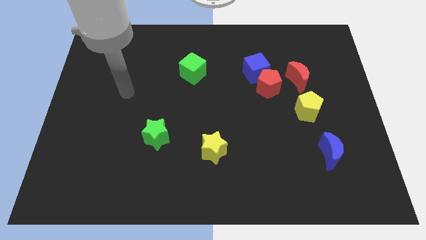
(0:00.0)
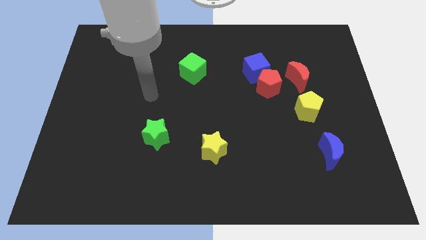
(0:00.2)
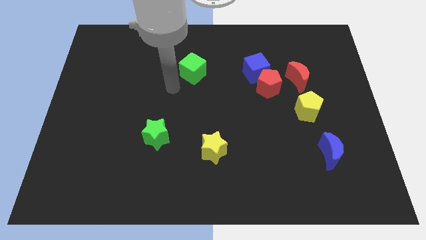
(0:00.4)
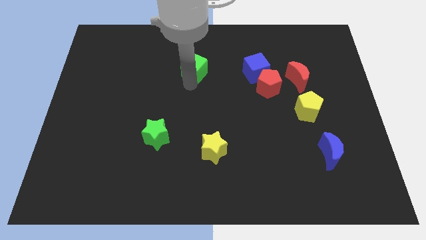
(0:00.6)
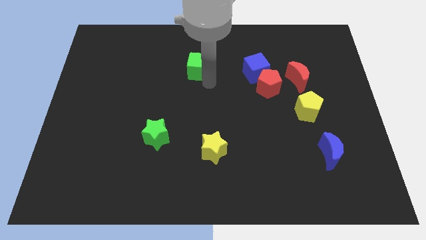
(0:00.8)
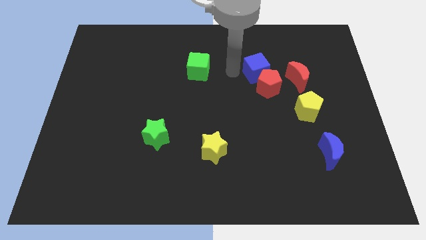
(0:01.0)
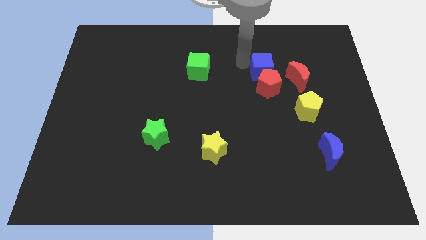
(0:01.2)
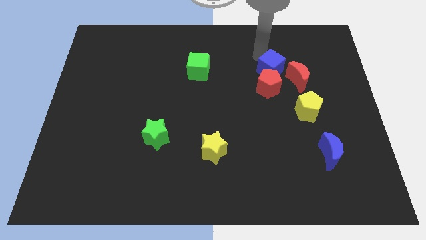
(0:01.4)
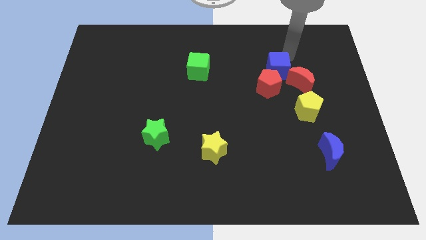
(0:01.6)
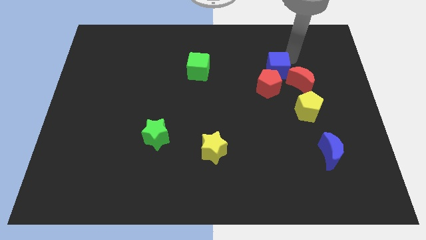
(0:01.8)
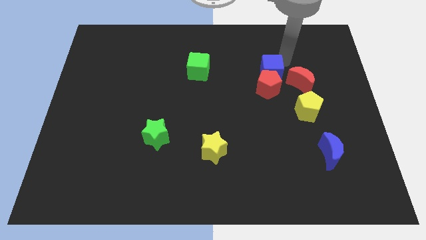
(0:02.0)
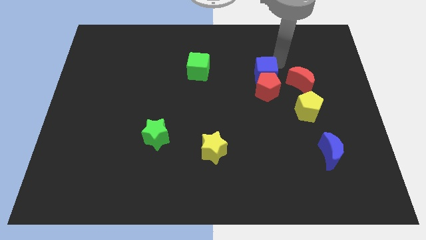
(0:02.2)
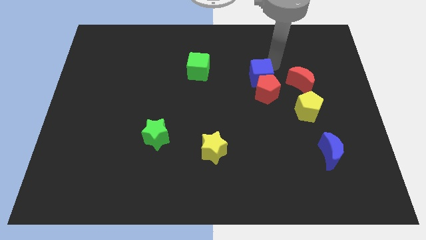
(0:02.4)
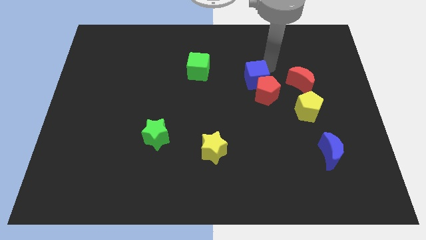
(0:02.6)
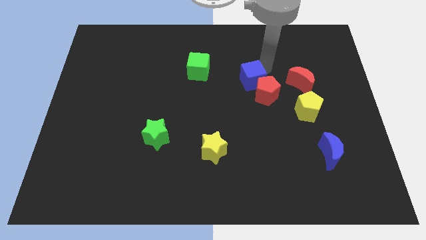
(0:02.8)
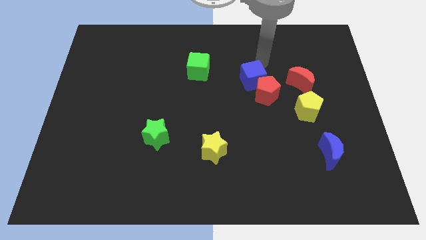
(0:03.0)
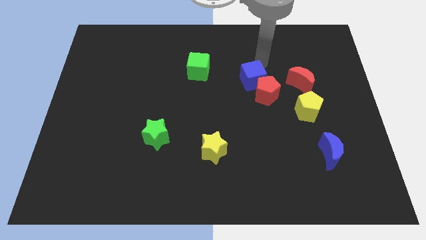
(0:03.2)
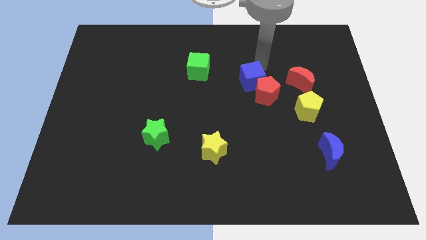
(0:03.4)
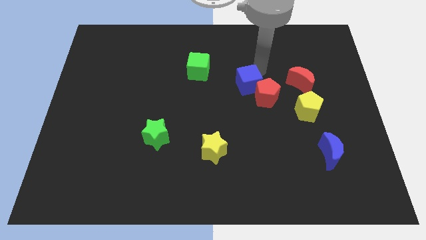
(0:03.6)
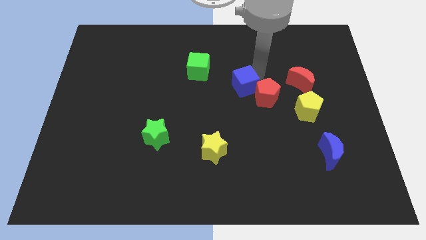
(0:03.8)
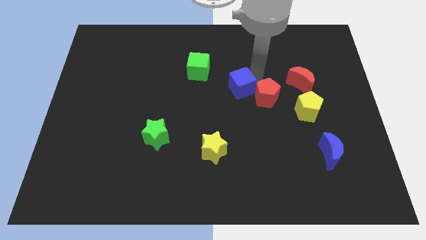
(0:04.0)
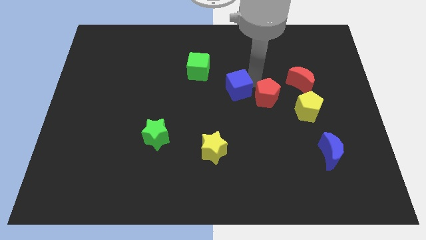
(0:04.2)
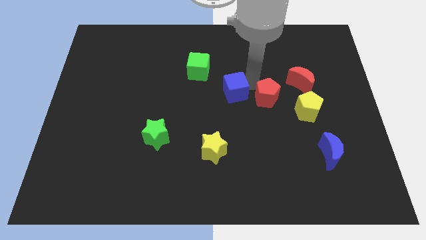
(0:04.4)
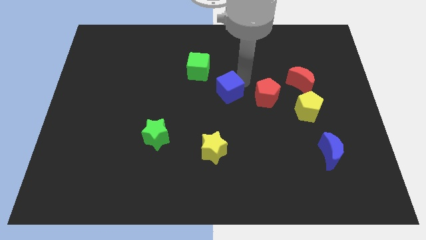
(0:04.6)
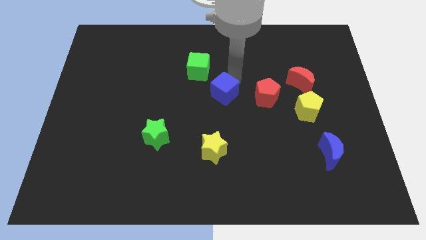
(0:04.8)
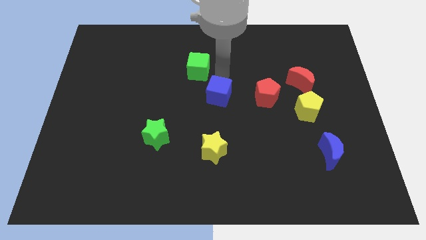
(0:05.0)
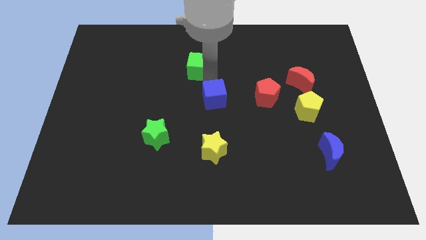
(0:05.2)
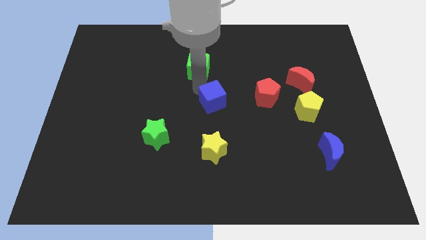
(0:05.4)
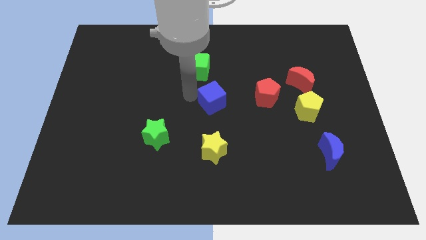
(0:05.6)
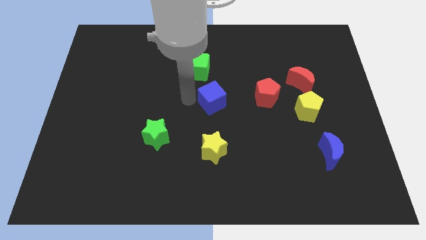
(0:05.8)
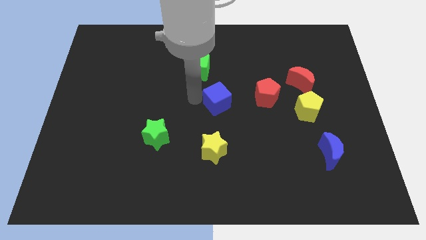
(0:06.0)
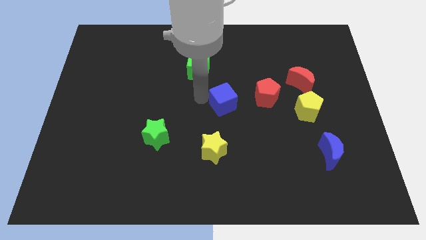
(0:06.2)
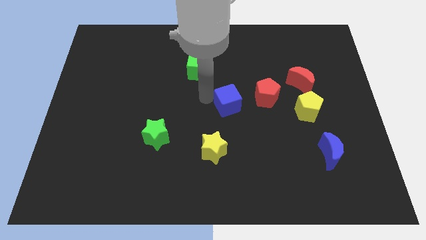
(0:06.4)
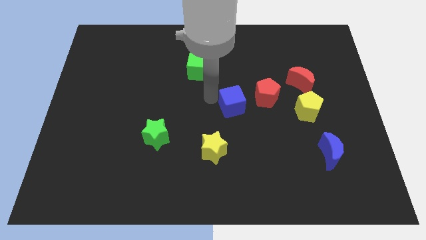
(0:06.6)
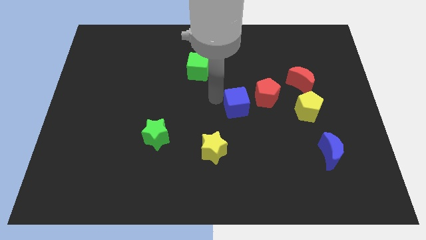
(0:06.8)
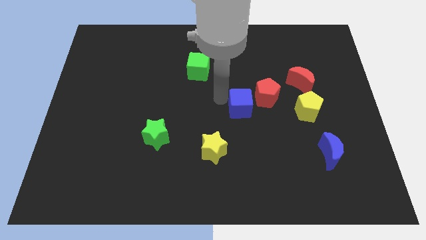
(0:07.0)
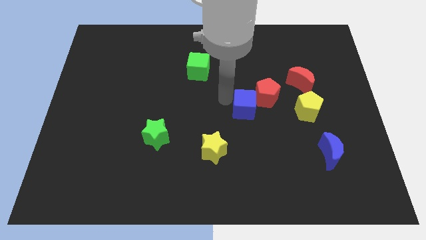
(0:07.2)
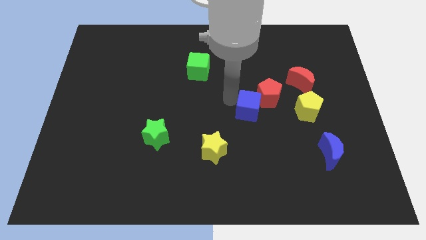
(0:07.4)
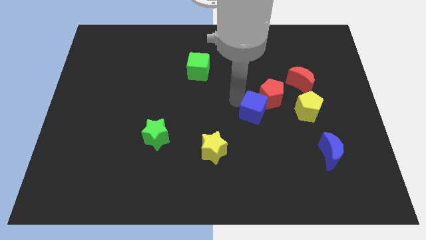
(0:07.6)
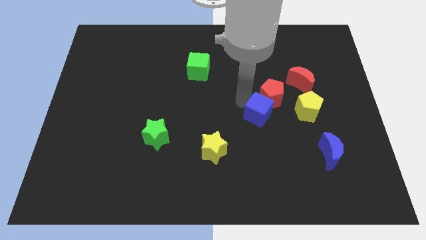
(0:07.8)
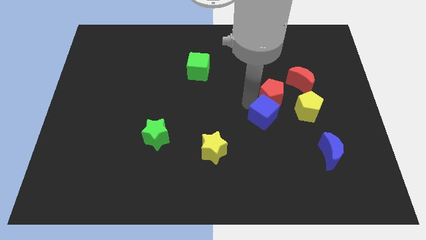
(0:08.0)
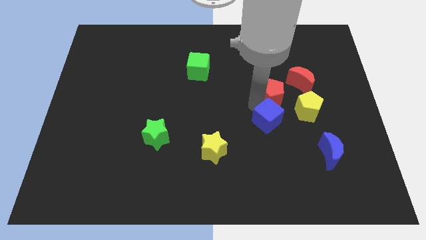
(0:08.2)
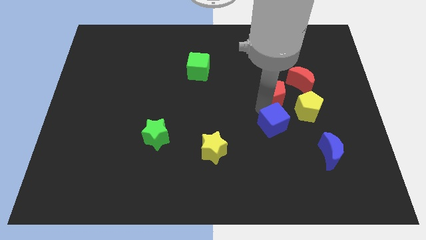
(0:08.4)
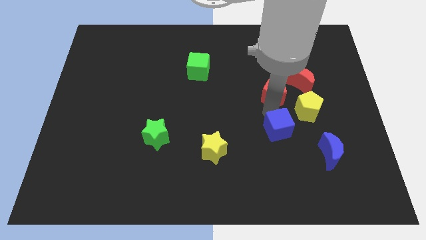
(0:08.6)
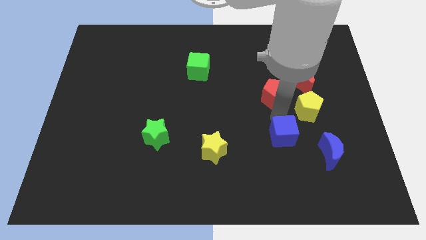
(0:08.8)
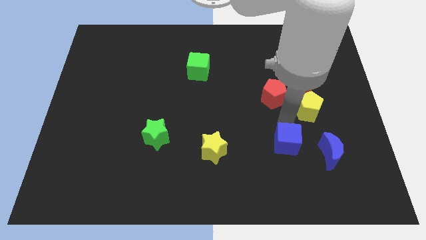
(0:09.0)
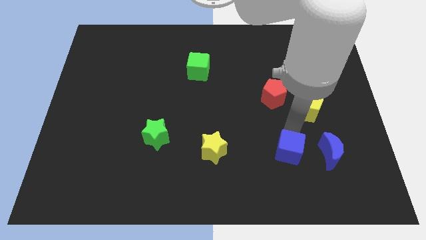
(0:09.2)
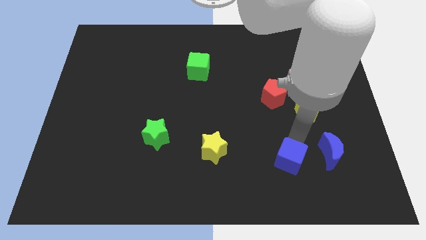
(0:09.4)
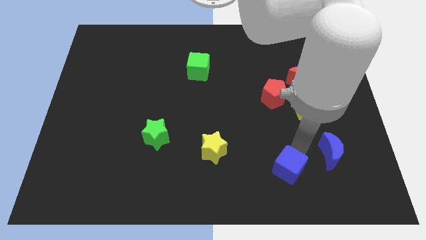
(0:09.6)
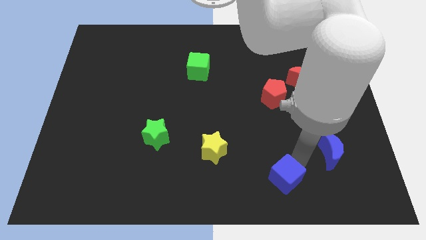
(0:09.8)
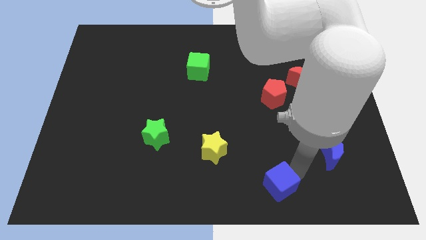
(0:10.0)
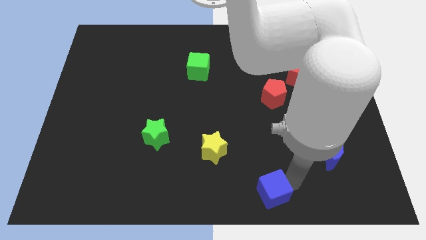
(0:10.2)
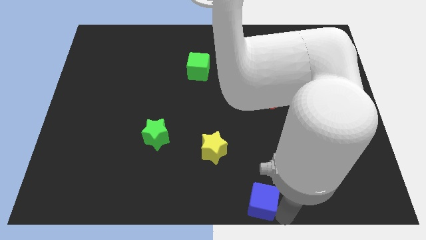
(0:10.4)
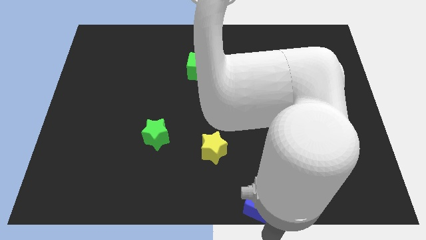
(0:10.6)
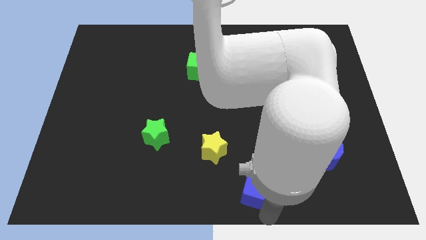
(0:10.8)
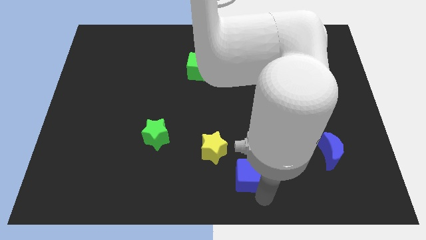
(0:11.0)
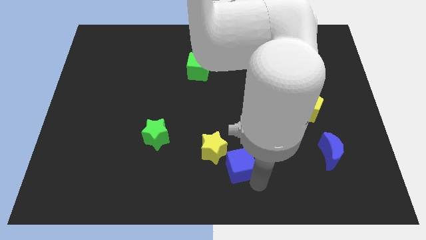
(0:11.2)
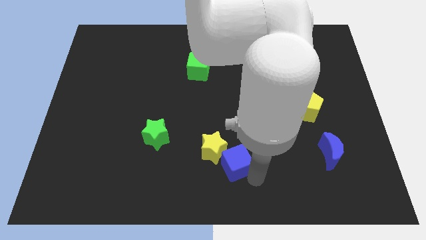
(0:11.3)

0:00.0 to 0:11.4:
put the blue cube to the yellow star

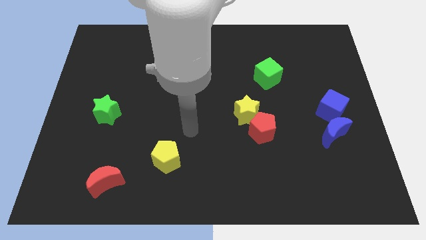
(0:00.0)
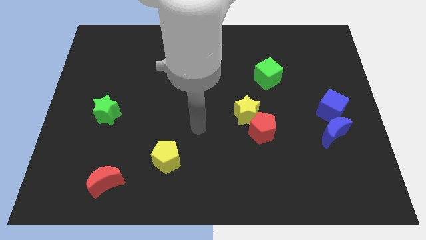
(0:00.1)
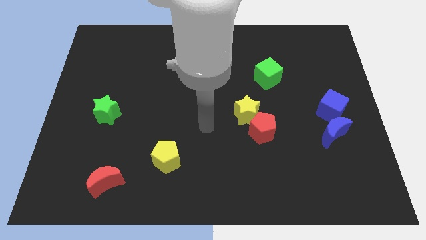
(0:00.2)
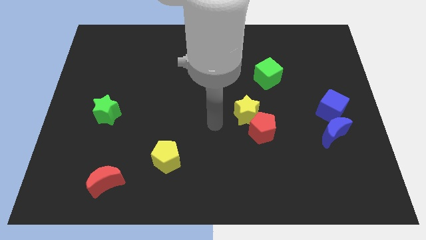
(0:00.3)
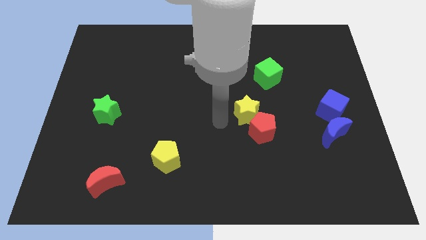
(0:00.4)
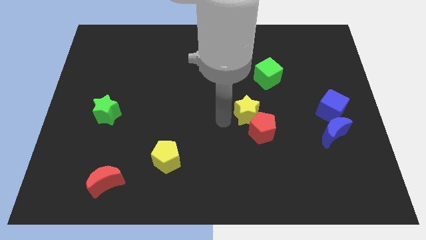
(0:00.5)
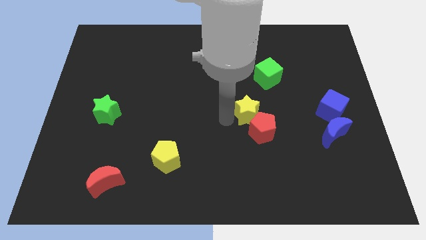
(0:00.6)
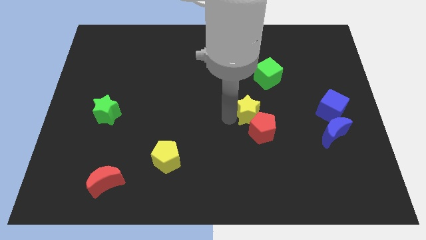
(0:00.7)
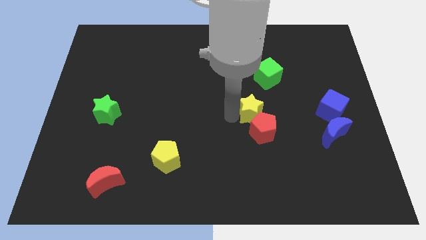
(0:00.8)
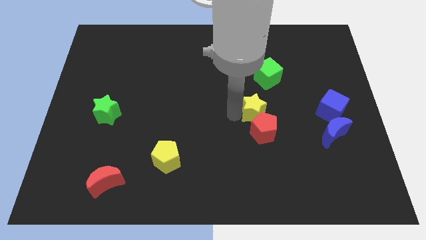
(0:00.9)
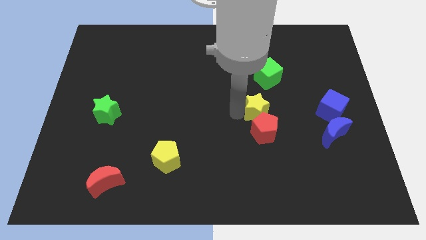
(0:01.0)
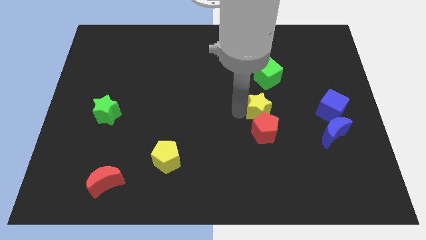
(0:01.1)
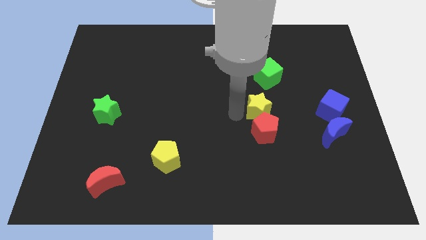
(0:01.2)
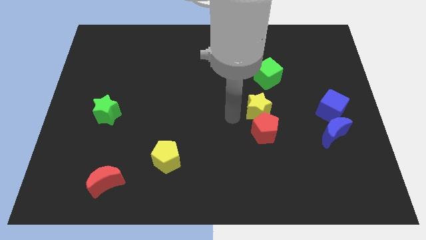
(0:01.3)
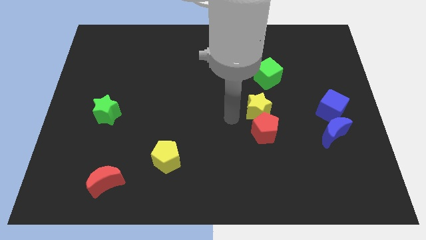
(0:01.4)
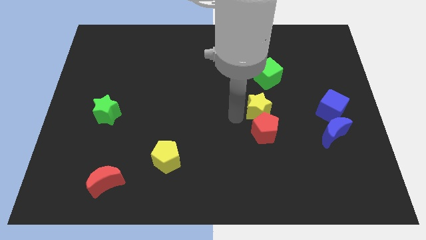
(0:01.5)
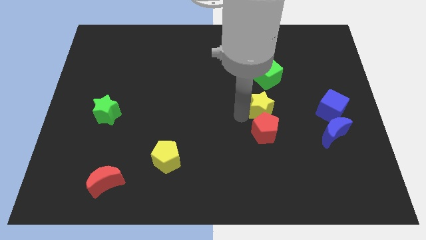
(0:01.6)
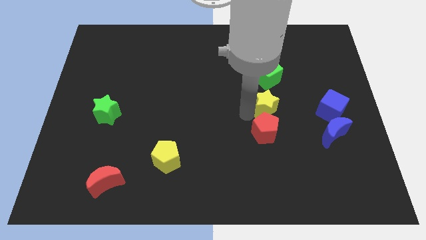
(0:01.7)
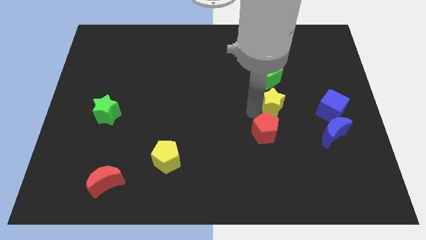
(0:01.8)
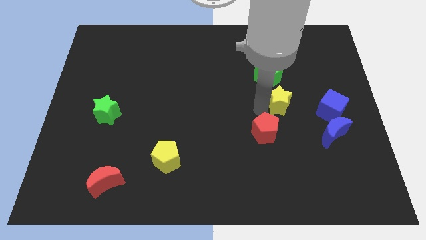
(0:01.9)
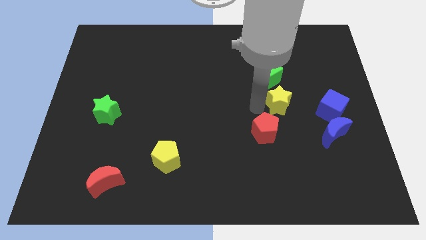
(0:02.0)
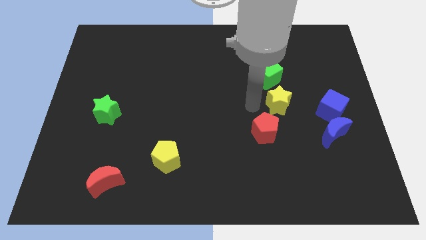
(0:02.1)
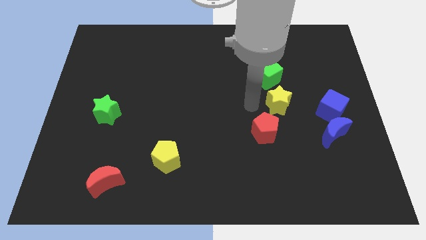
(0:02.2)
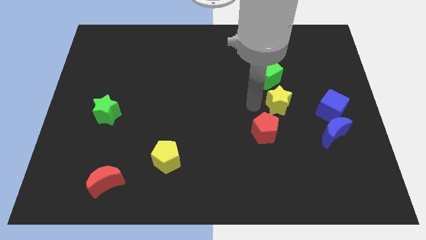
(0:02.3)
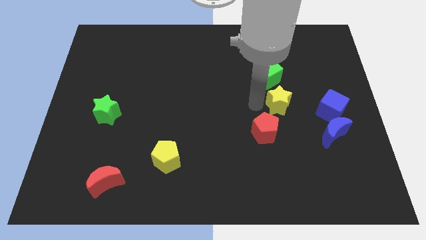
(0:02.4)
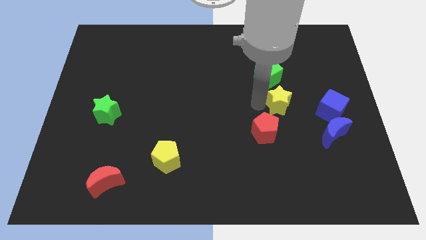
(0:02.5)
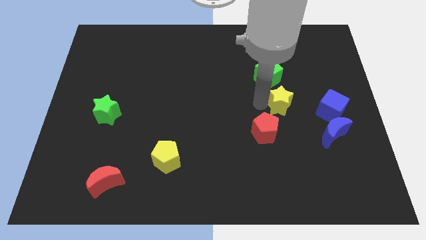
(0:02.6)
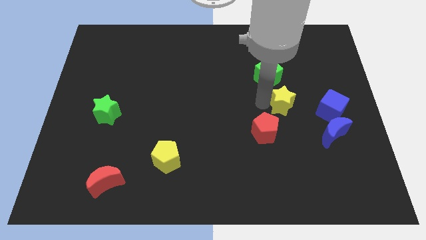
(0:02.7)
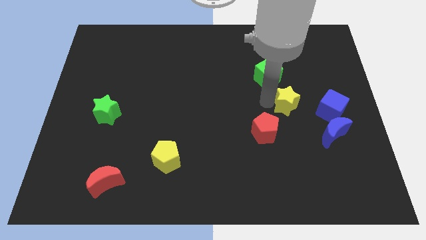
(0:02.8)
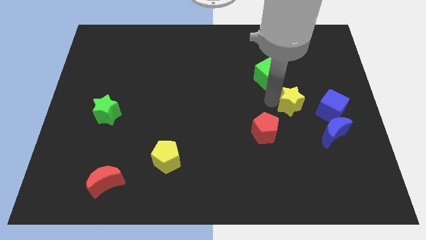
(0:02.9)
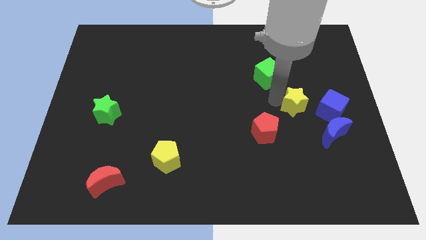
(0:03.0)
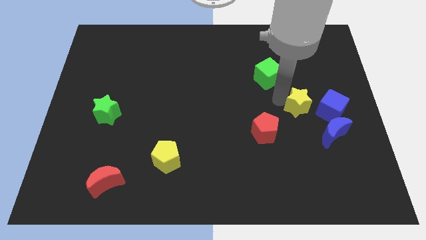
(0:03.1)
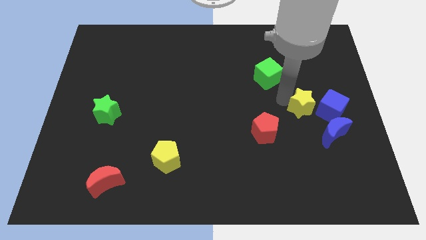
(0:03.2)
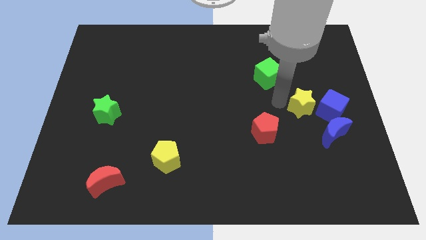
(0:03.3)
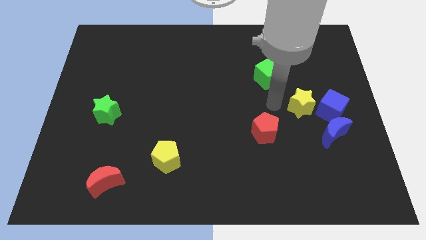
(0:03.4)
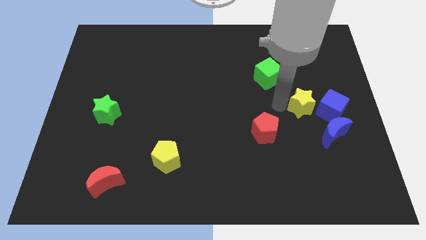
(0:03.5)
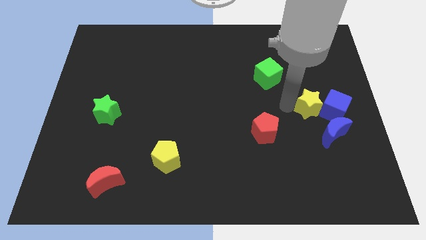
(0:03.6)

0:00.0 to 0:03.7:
slide the yellow star close to the blue cube
